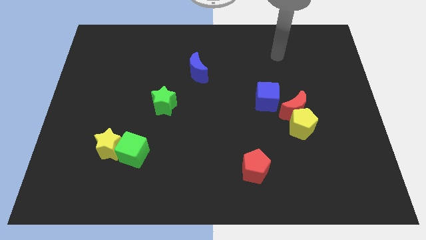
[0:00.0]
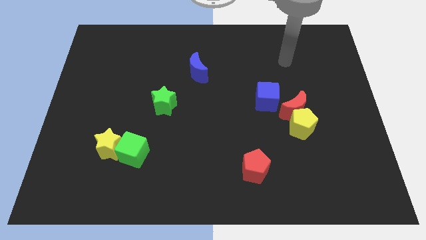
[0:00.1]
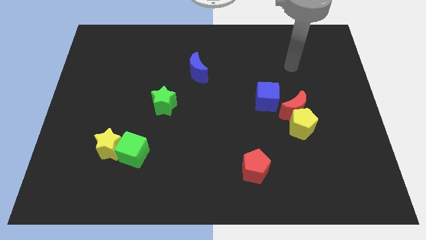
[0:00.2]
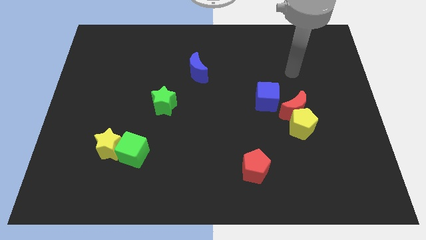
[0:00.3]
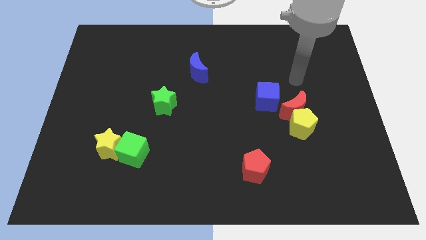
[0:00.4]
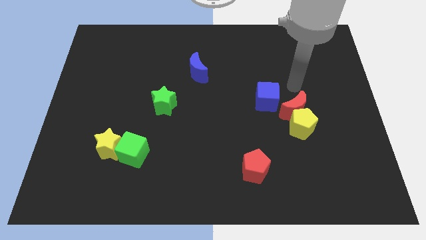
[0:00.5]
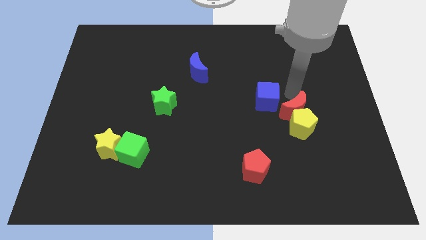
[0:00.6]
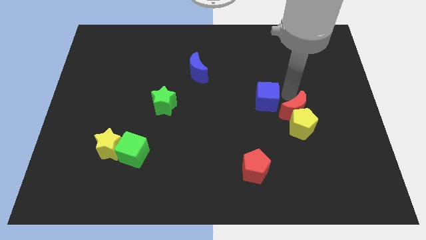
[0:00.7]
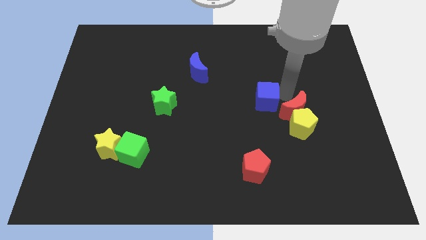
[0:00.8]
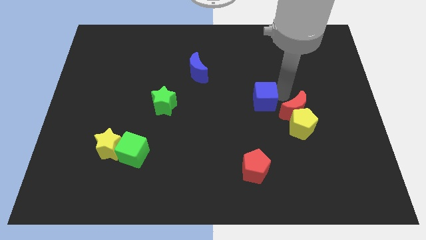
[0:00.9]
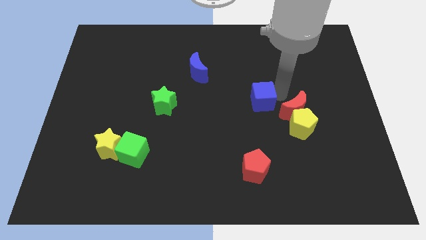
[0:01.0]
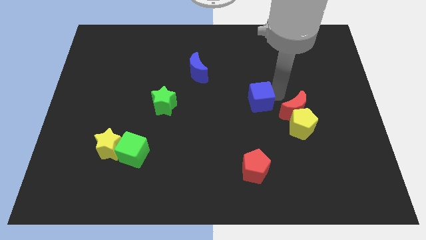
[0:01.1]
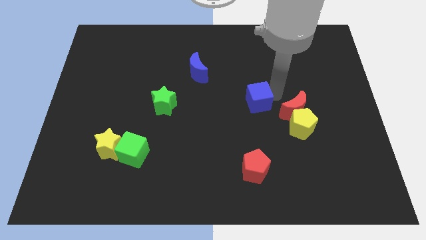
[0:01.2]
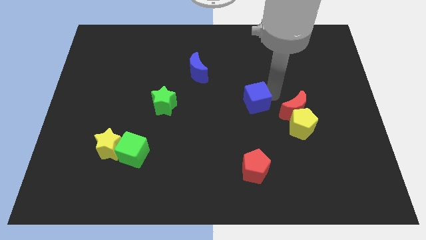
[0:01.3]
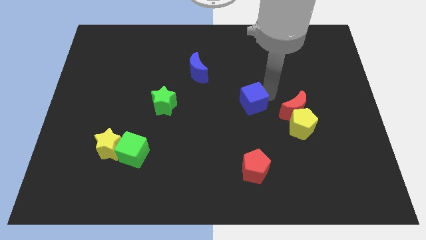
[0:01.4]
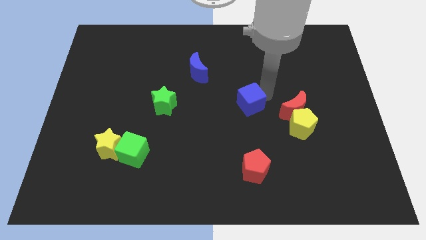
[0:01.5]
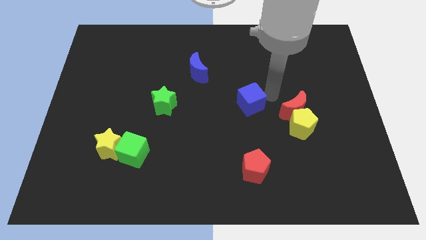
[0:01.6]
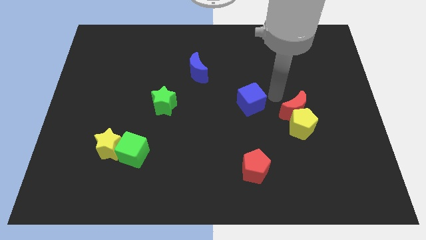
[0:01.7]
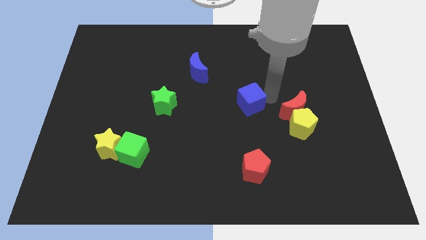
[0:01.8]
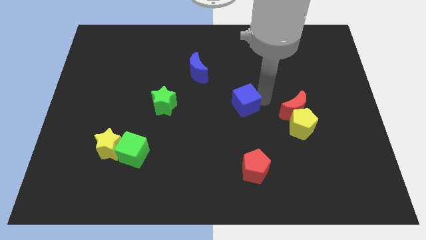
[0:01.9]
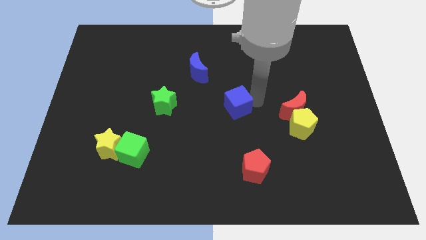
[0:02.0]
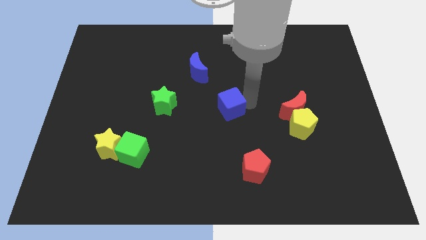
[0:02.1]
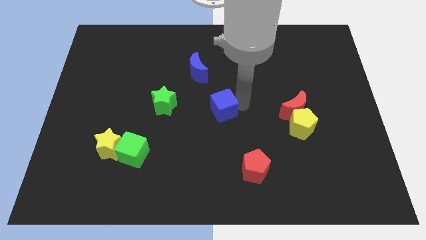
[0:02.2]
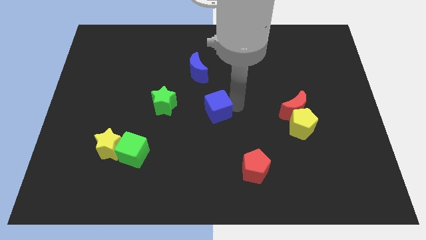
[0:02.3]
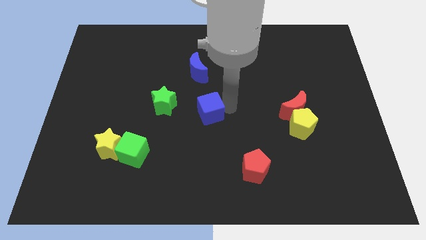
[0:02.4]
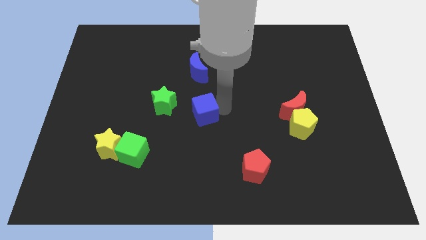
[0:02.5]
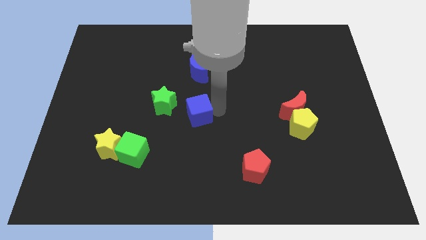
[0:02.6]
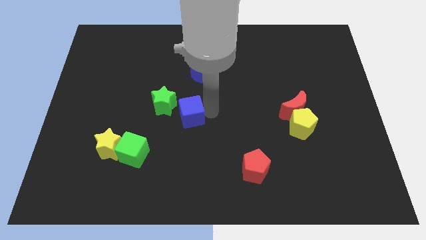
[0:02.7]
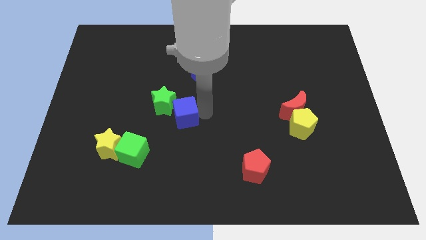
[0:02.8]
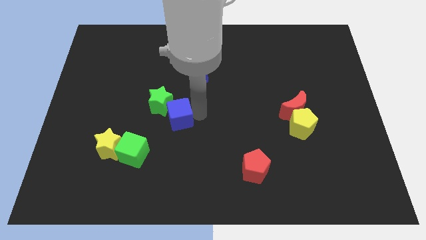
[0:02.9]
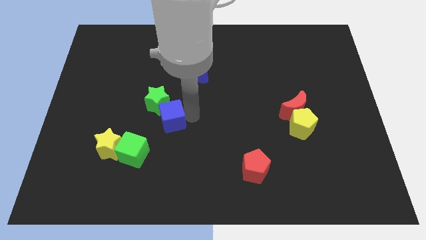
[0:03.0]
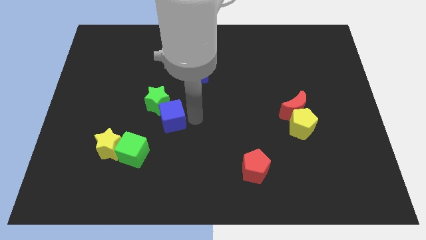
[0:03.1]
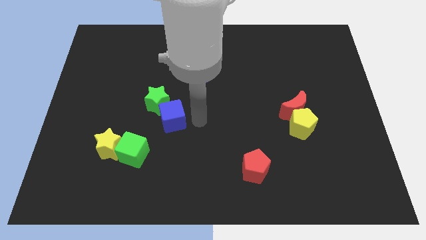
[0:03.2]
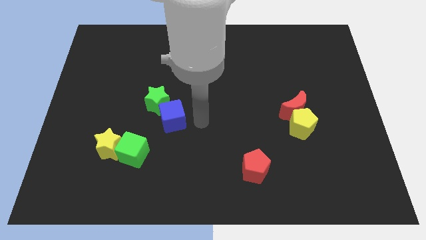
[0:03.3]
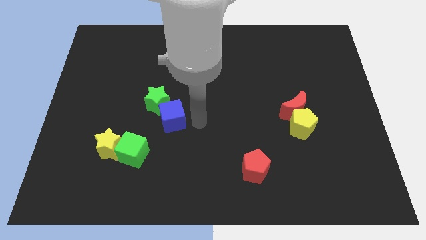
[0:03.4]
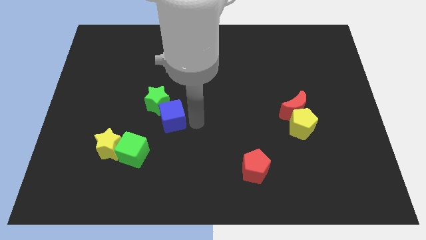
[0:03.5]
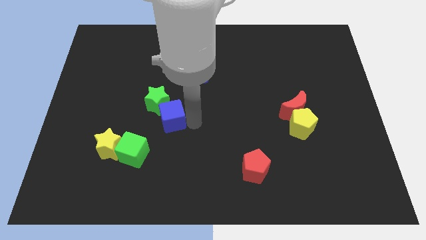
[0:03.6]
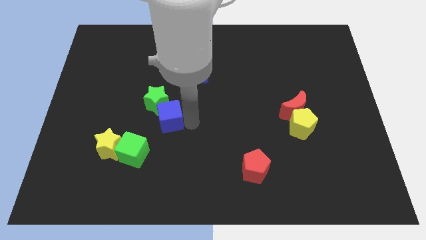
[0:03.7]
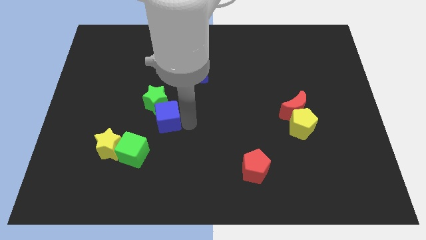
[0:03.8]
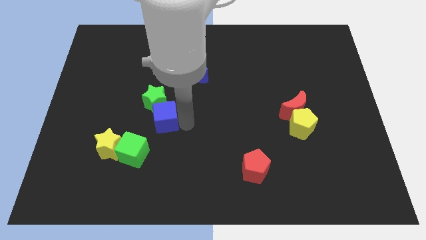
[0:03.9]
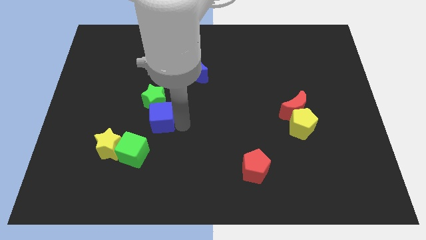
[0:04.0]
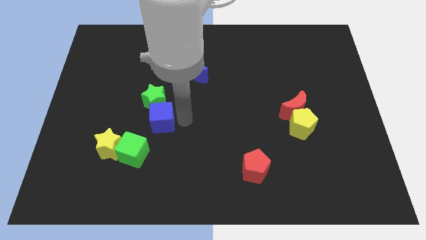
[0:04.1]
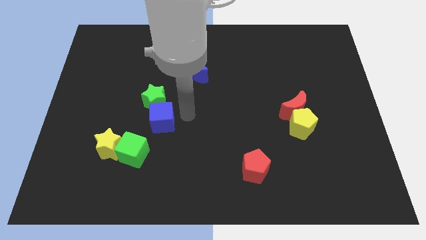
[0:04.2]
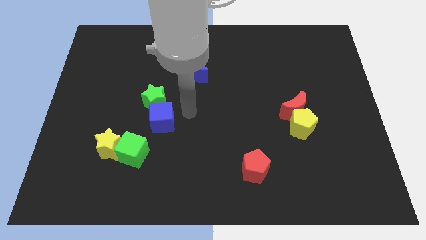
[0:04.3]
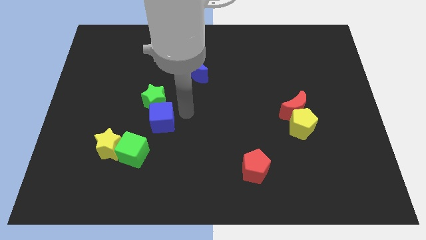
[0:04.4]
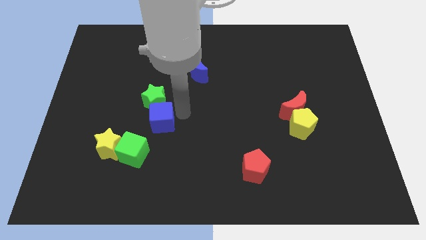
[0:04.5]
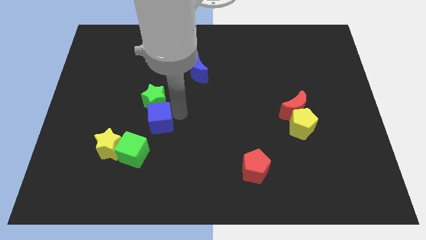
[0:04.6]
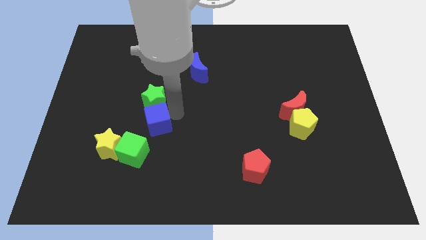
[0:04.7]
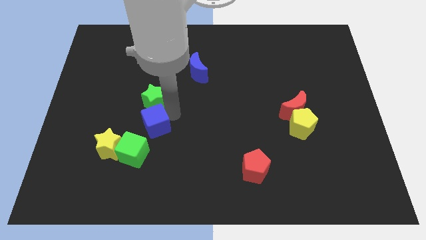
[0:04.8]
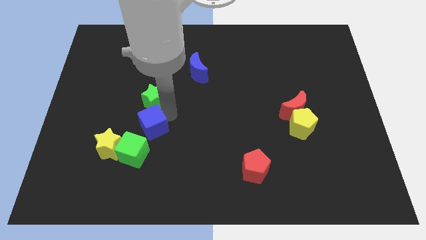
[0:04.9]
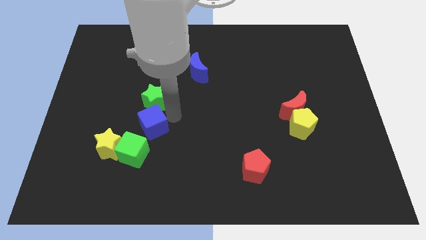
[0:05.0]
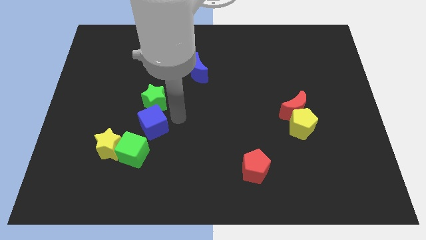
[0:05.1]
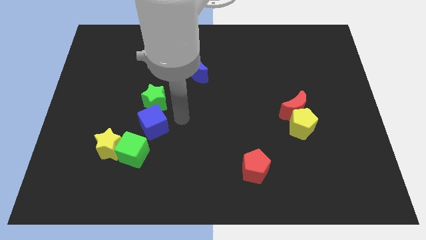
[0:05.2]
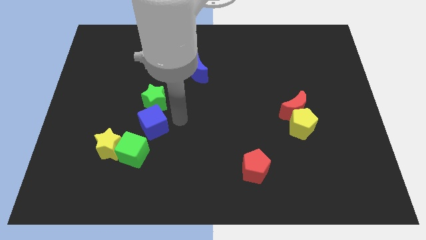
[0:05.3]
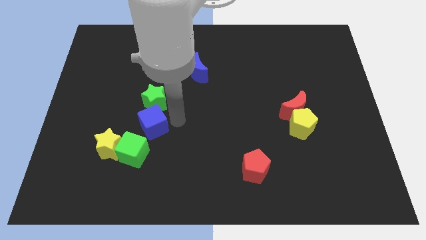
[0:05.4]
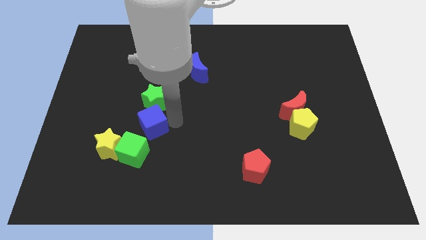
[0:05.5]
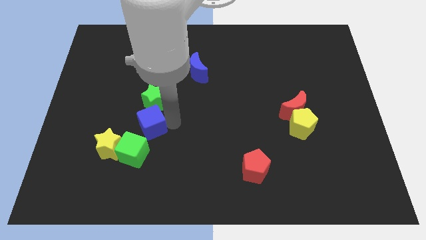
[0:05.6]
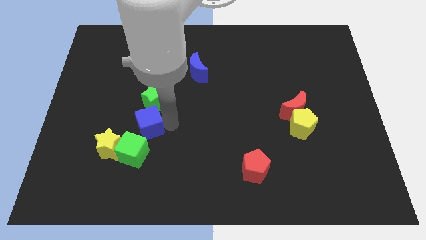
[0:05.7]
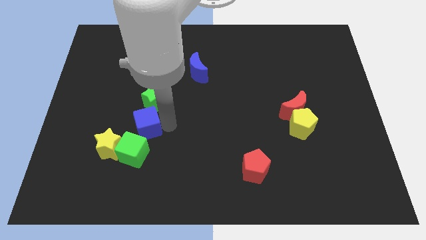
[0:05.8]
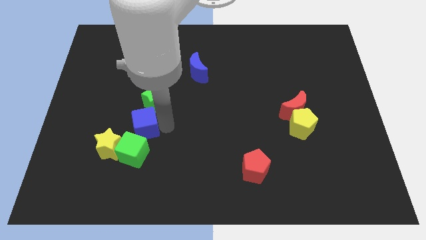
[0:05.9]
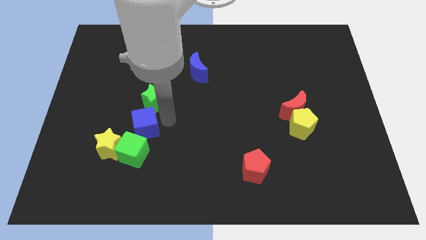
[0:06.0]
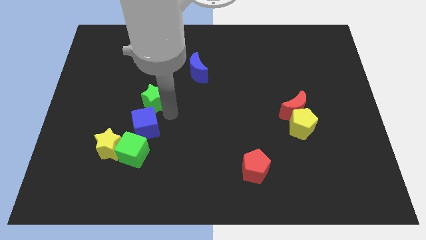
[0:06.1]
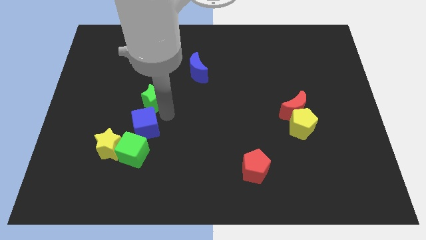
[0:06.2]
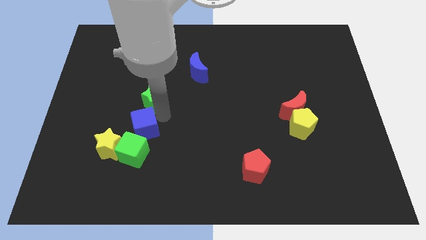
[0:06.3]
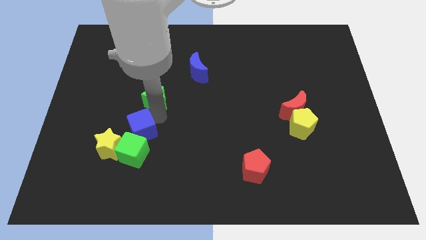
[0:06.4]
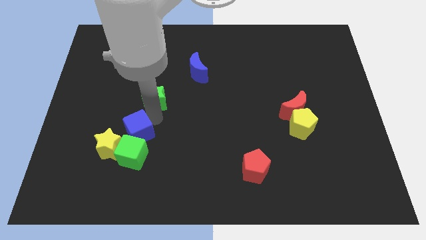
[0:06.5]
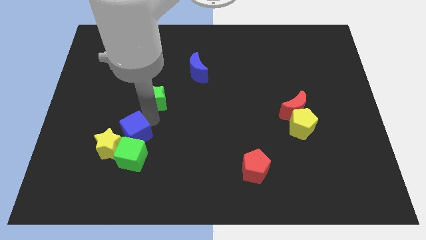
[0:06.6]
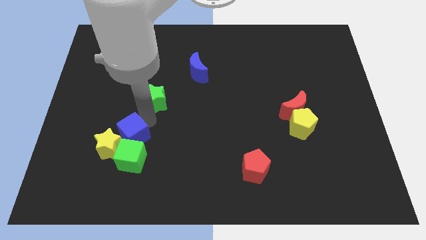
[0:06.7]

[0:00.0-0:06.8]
move the blue cube to the yellow star

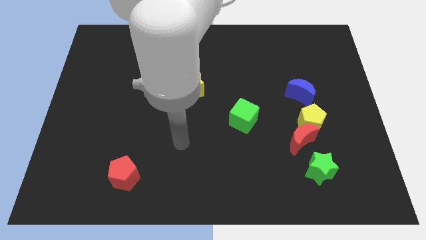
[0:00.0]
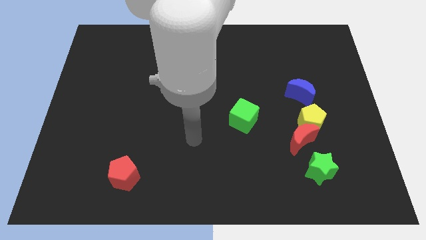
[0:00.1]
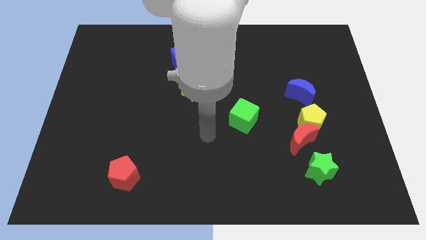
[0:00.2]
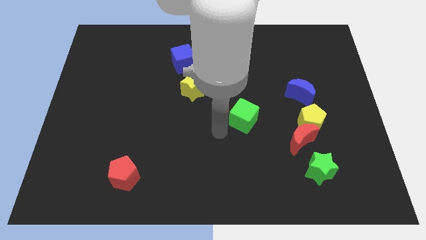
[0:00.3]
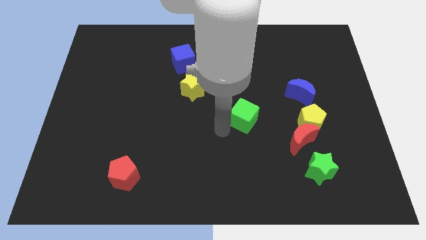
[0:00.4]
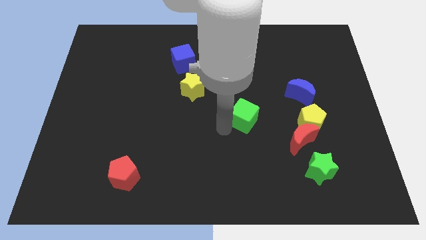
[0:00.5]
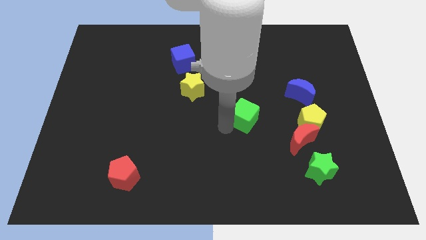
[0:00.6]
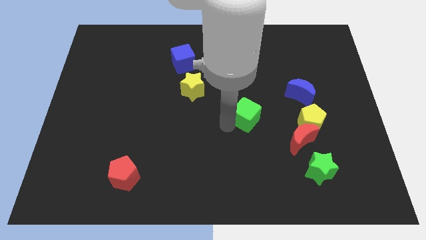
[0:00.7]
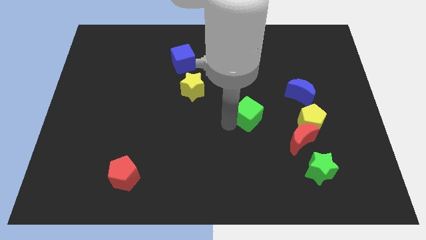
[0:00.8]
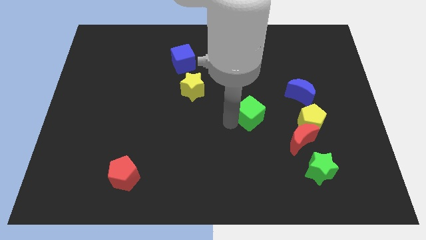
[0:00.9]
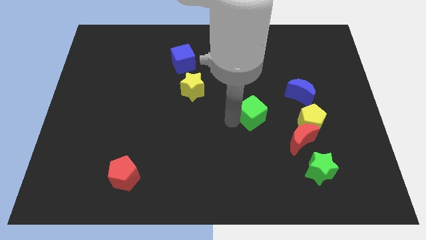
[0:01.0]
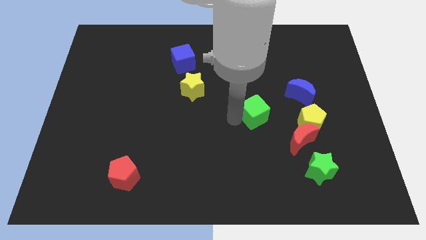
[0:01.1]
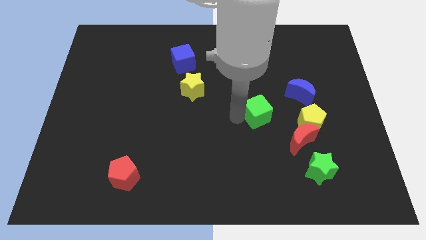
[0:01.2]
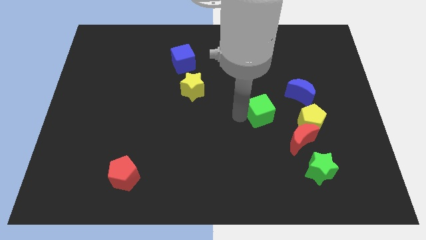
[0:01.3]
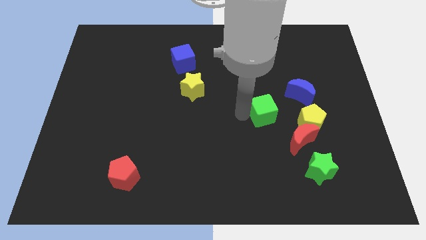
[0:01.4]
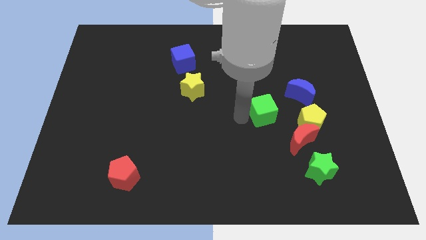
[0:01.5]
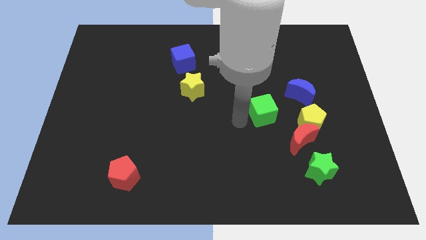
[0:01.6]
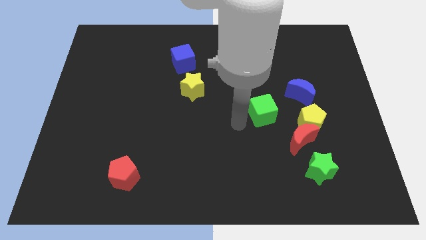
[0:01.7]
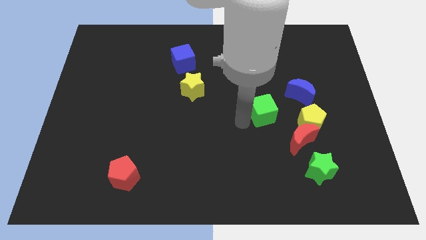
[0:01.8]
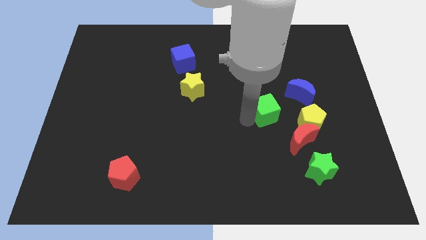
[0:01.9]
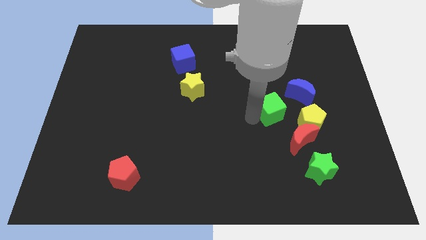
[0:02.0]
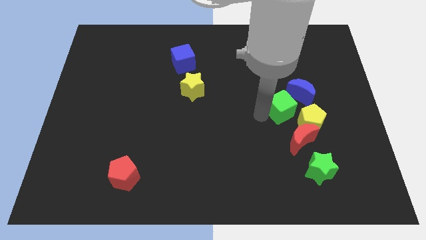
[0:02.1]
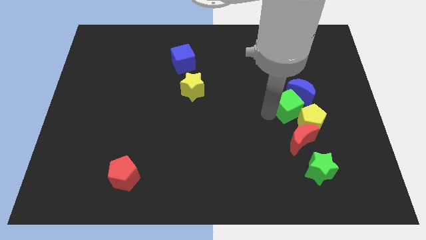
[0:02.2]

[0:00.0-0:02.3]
put the green cube close to the blue moon
